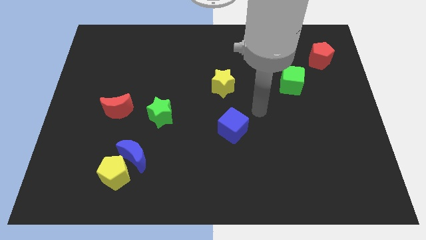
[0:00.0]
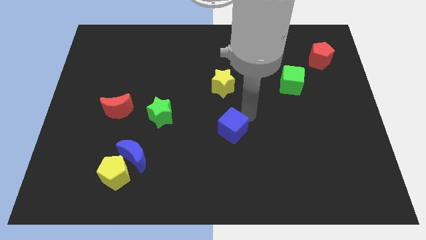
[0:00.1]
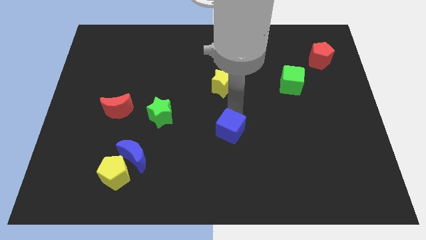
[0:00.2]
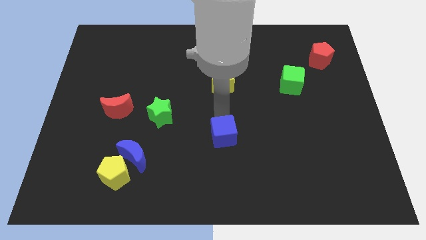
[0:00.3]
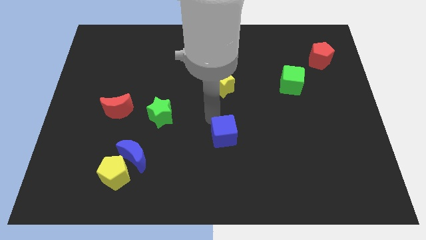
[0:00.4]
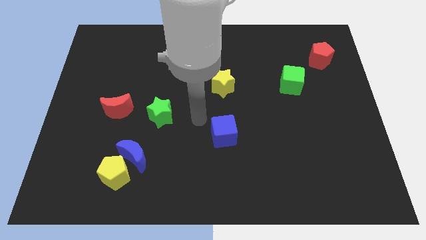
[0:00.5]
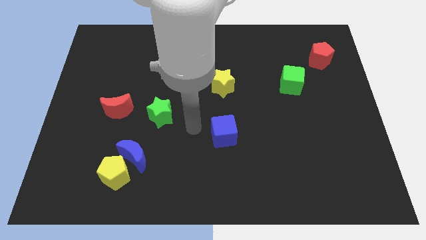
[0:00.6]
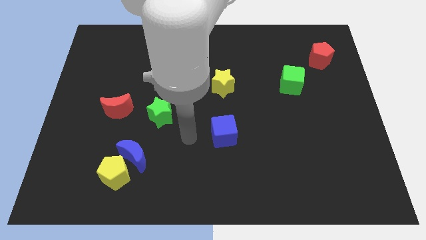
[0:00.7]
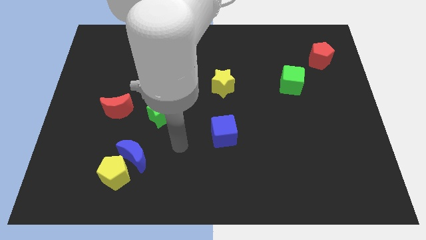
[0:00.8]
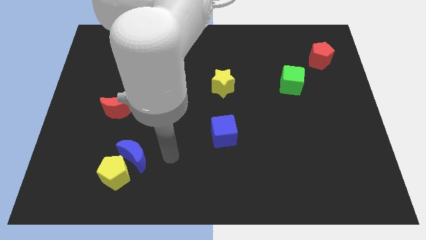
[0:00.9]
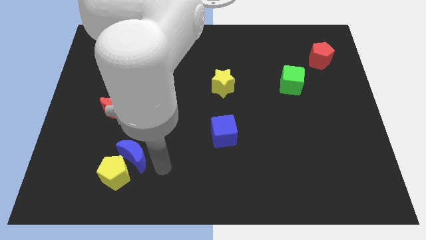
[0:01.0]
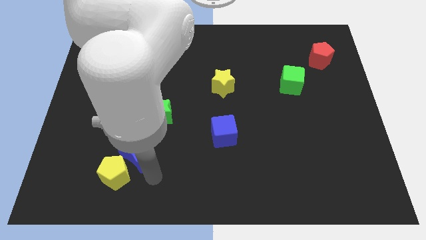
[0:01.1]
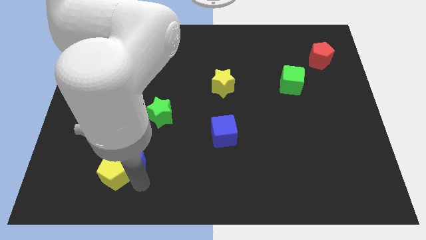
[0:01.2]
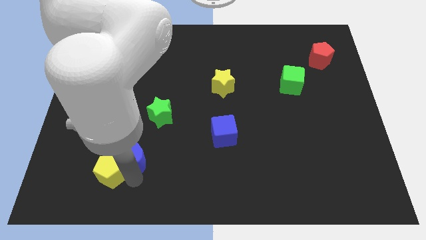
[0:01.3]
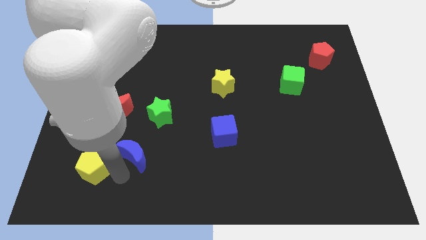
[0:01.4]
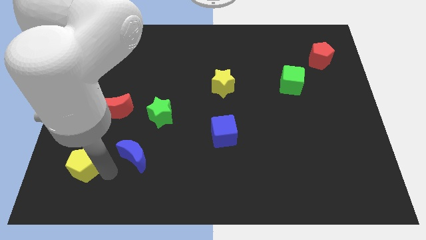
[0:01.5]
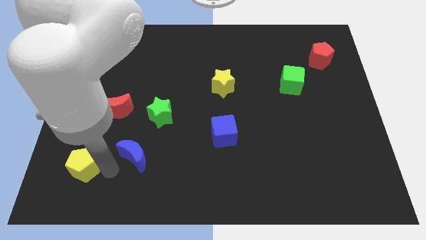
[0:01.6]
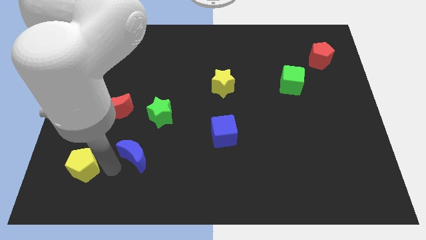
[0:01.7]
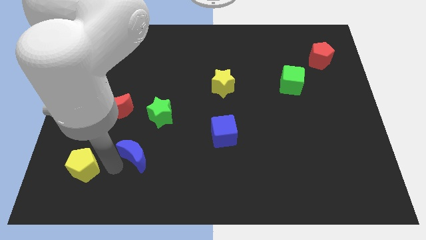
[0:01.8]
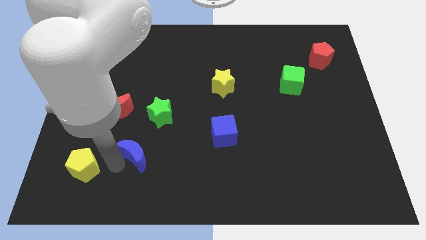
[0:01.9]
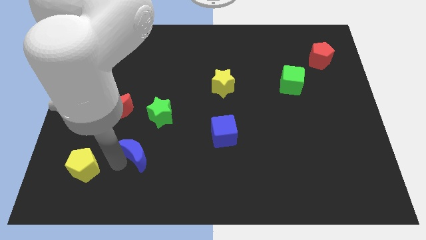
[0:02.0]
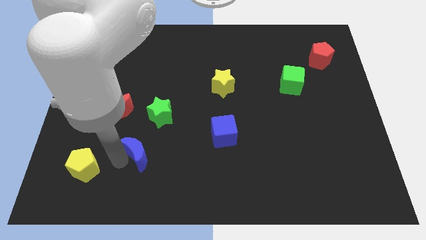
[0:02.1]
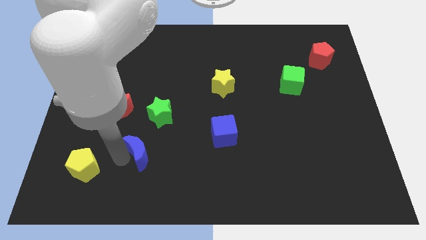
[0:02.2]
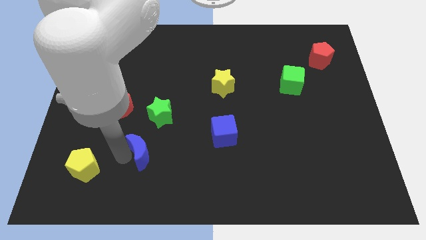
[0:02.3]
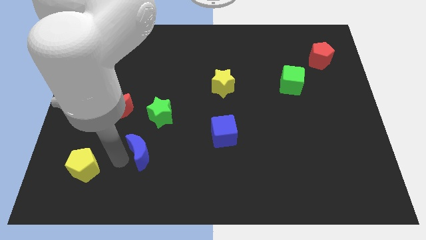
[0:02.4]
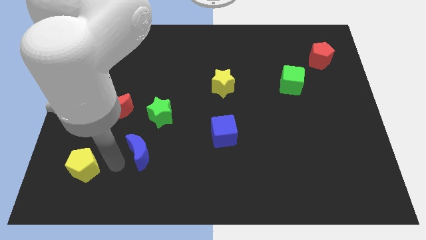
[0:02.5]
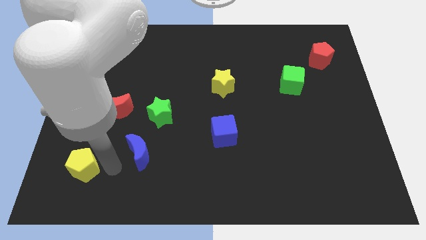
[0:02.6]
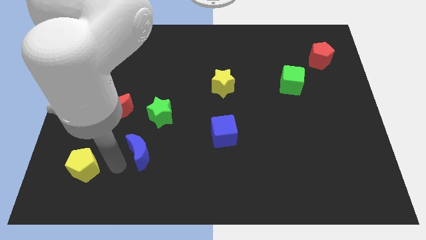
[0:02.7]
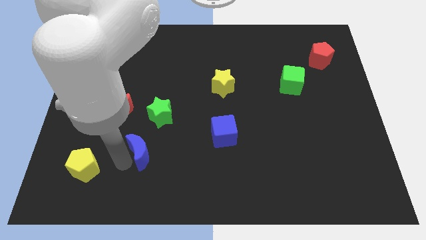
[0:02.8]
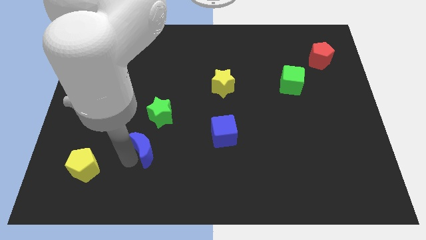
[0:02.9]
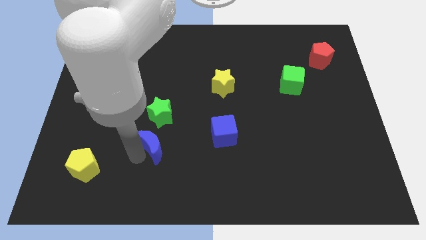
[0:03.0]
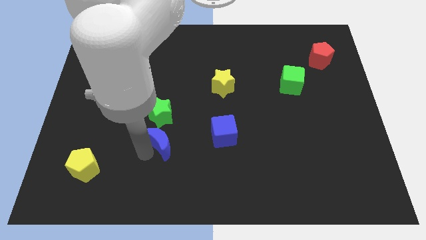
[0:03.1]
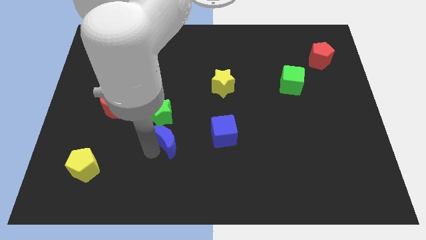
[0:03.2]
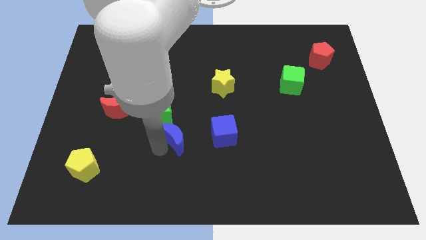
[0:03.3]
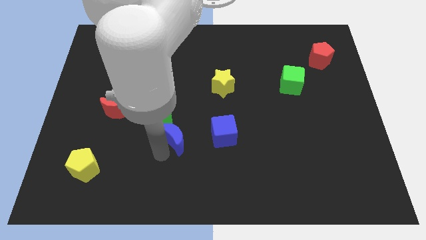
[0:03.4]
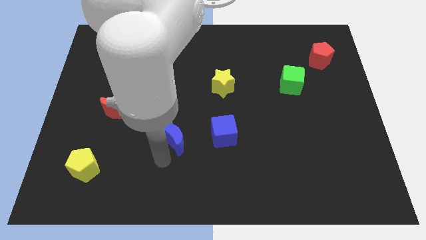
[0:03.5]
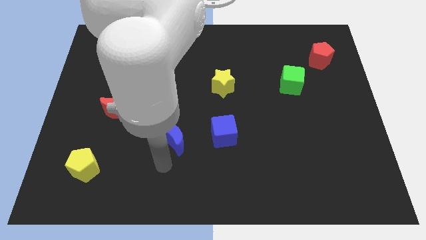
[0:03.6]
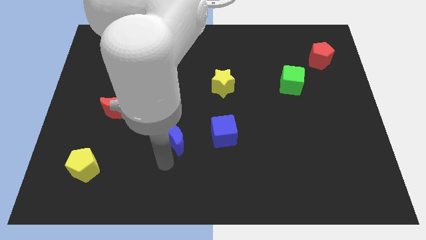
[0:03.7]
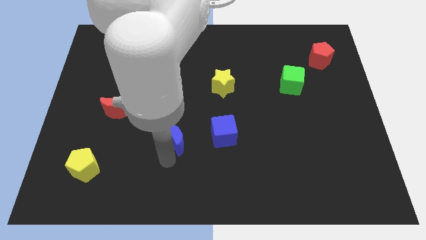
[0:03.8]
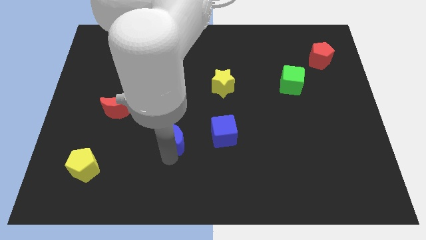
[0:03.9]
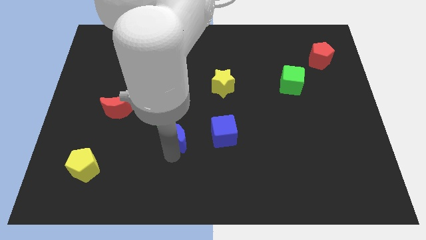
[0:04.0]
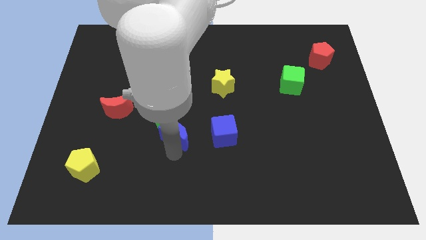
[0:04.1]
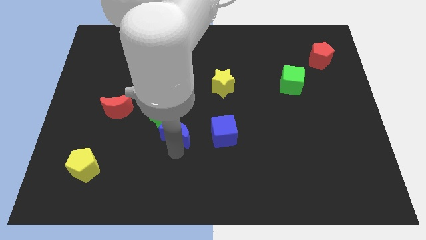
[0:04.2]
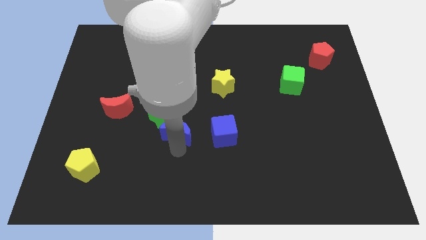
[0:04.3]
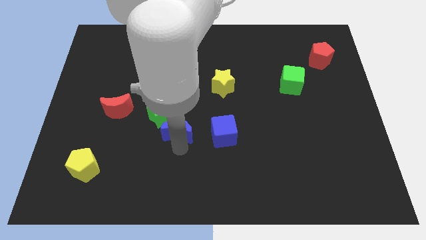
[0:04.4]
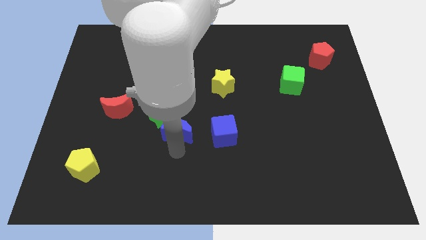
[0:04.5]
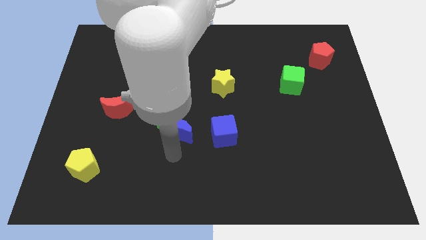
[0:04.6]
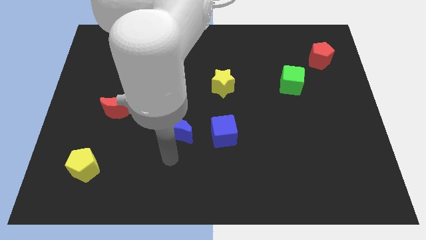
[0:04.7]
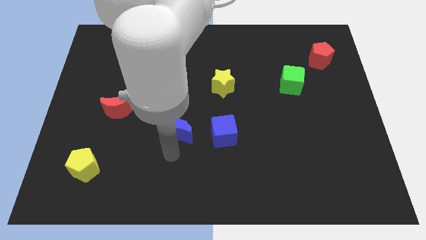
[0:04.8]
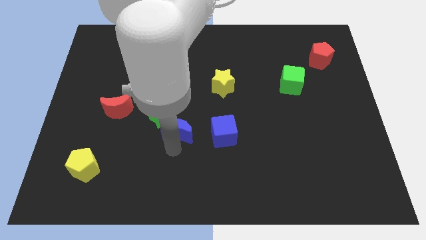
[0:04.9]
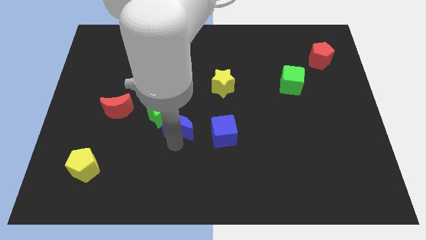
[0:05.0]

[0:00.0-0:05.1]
push the blue moon to the right side of the green star

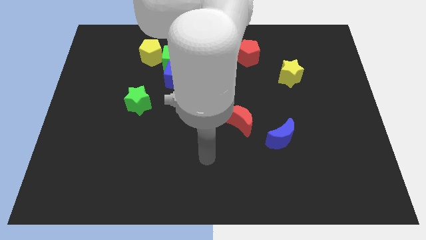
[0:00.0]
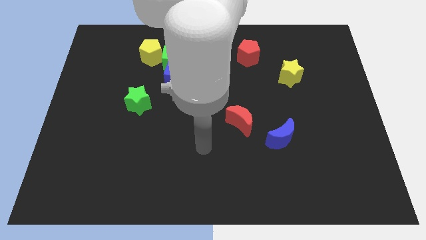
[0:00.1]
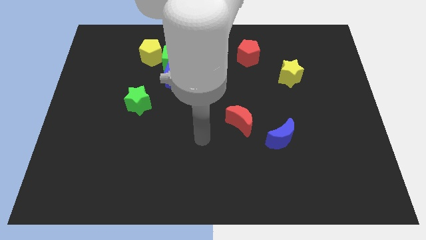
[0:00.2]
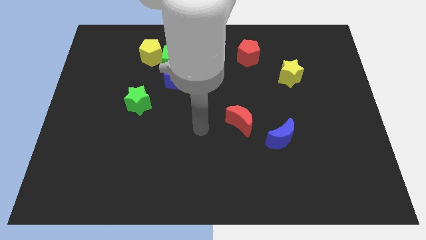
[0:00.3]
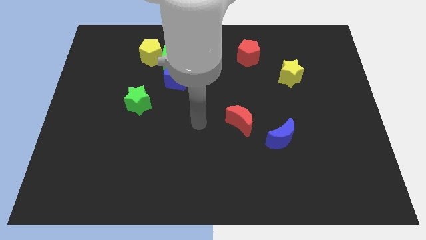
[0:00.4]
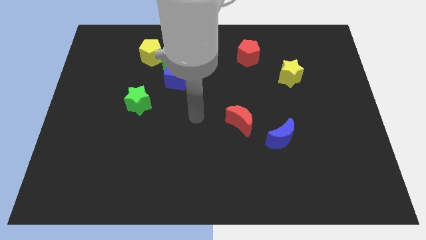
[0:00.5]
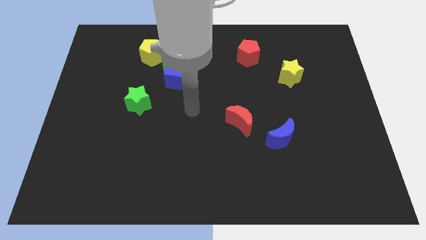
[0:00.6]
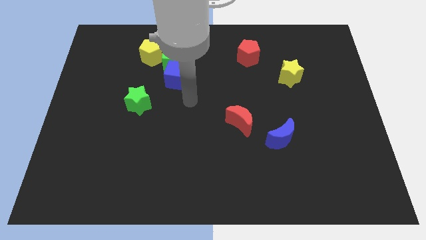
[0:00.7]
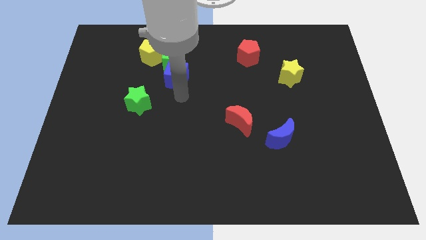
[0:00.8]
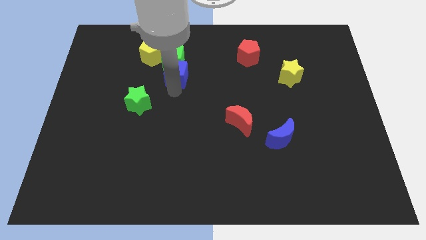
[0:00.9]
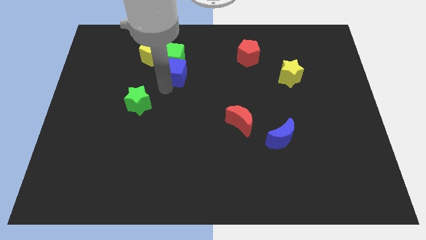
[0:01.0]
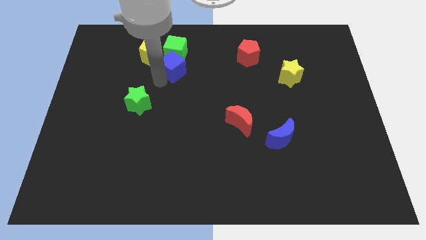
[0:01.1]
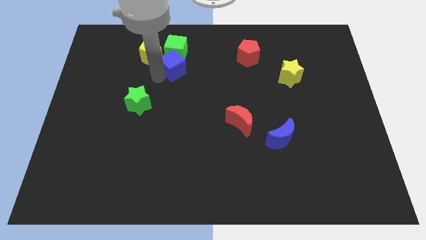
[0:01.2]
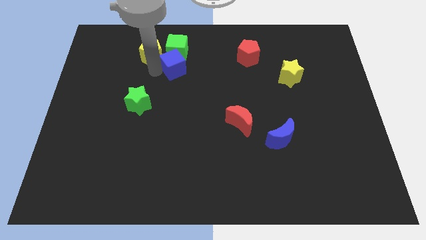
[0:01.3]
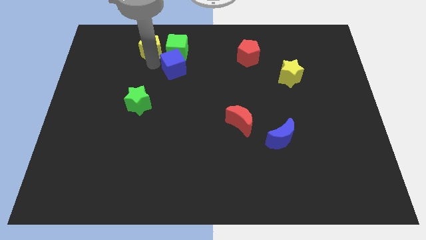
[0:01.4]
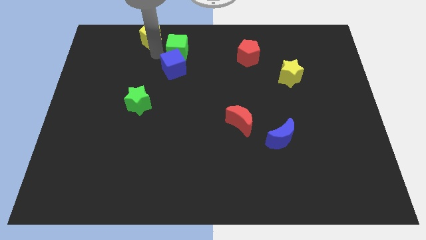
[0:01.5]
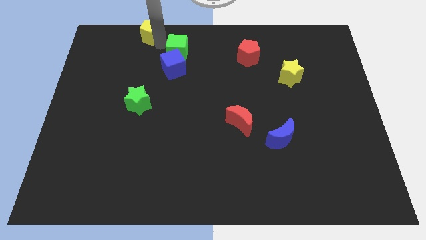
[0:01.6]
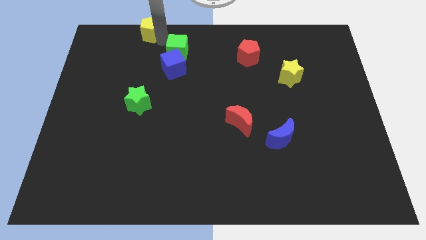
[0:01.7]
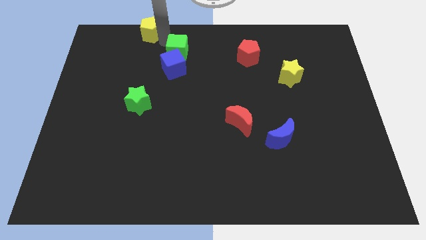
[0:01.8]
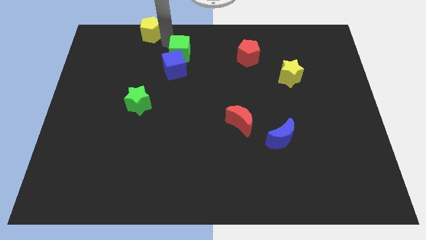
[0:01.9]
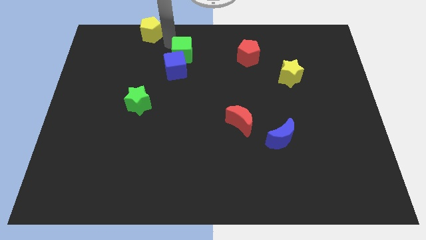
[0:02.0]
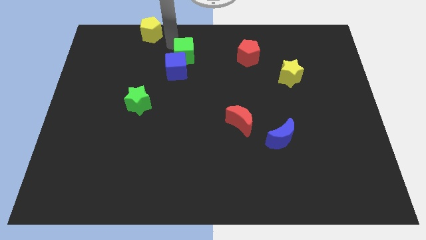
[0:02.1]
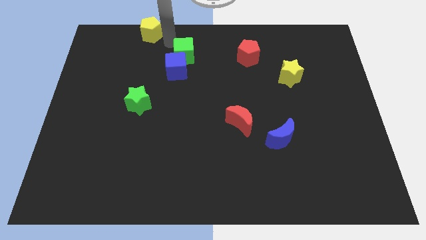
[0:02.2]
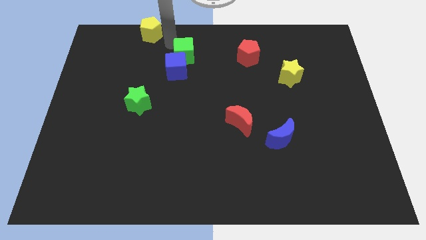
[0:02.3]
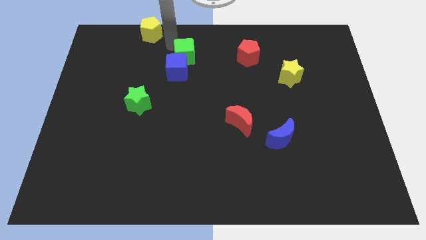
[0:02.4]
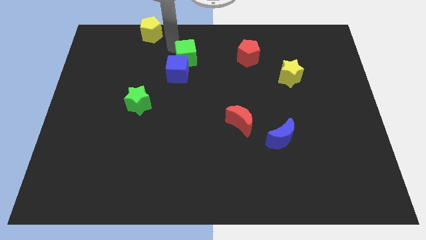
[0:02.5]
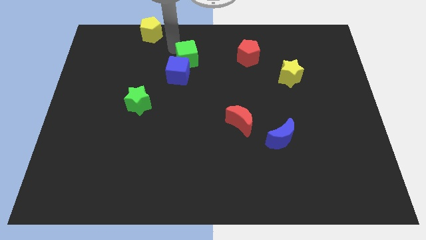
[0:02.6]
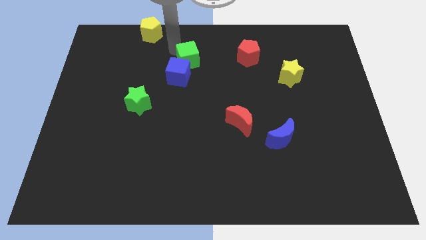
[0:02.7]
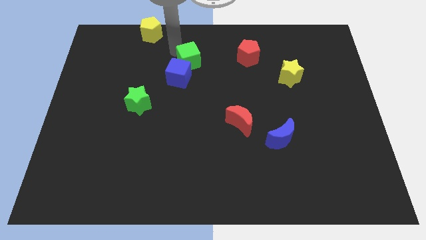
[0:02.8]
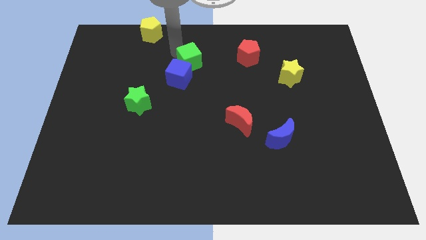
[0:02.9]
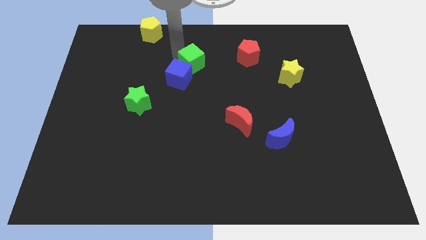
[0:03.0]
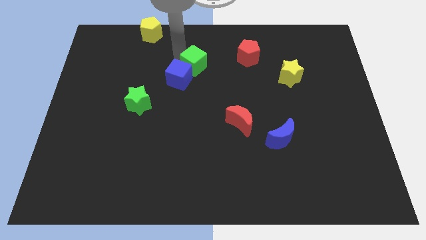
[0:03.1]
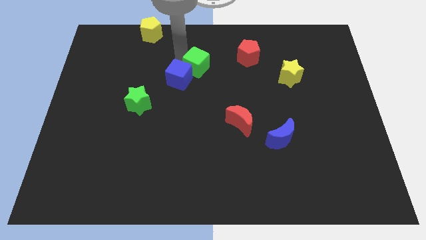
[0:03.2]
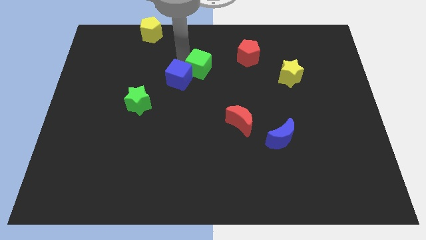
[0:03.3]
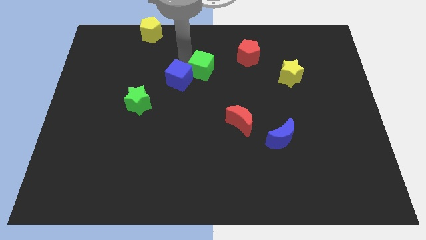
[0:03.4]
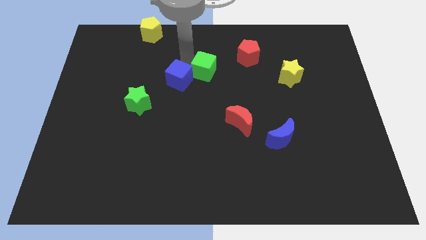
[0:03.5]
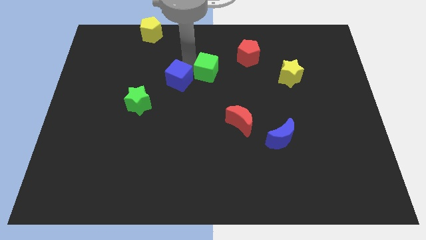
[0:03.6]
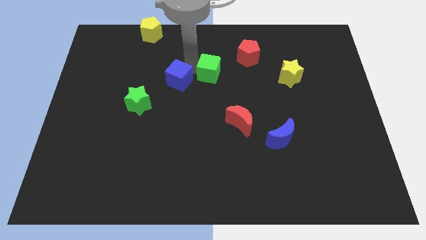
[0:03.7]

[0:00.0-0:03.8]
move the green cube to the bottom left of the red pentagon
